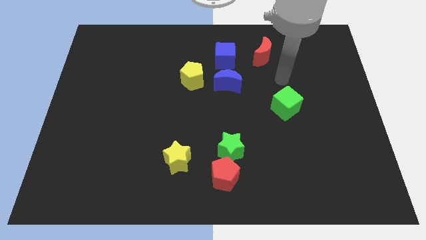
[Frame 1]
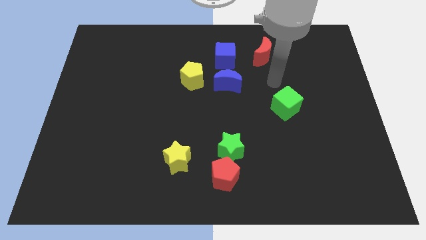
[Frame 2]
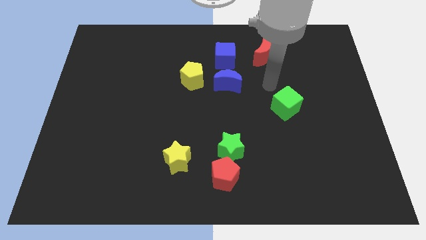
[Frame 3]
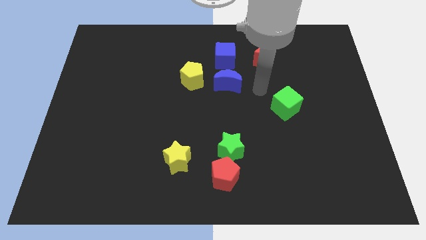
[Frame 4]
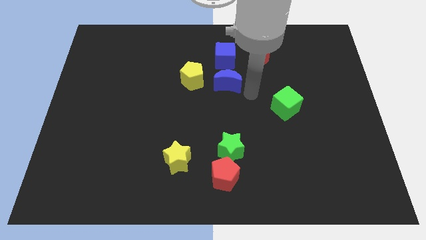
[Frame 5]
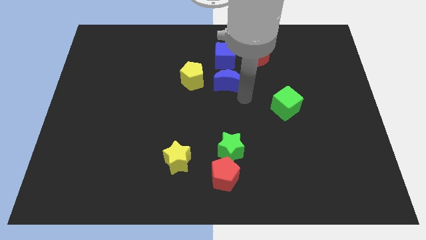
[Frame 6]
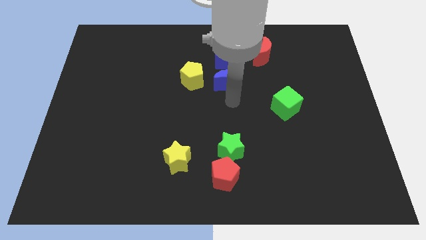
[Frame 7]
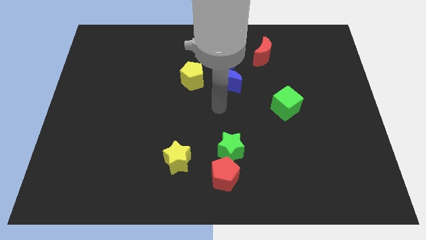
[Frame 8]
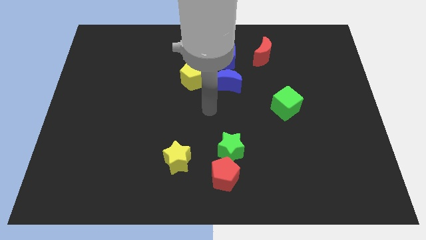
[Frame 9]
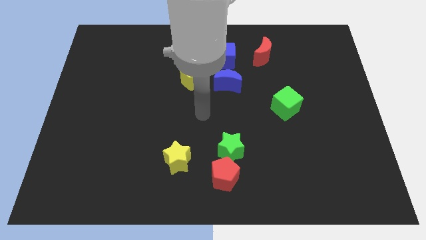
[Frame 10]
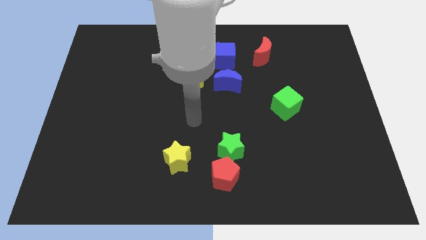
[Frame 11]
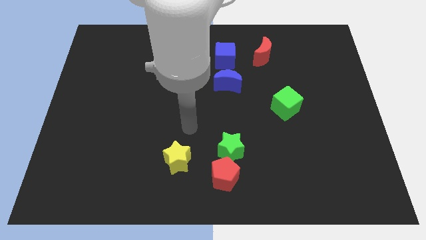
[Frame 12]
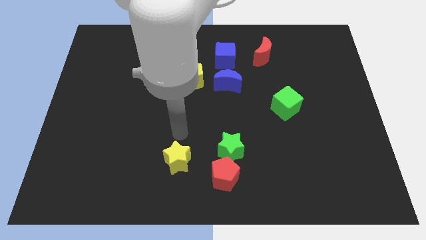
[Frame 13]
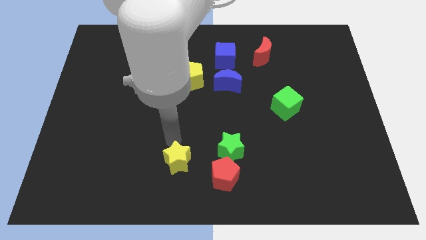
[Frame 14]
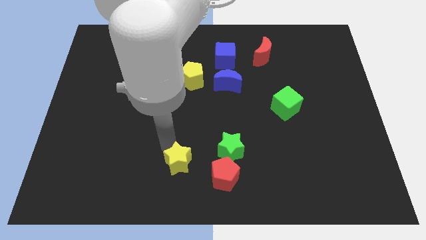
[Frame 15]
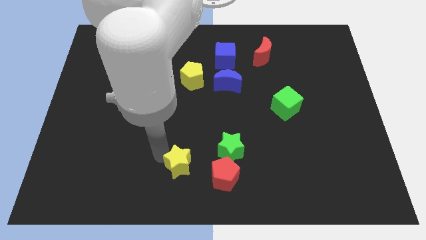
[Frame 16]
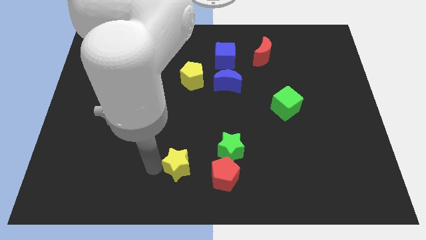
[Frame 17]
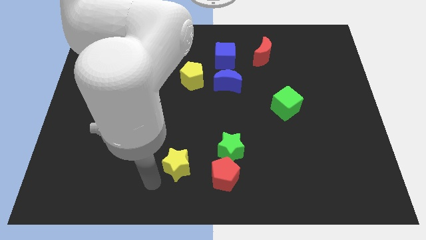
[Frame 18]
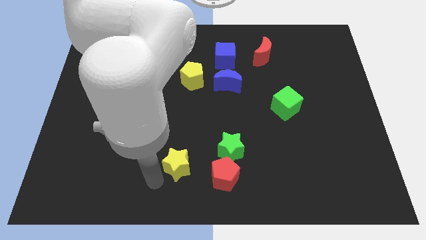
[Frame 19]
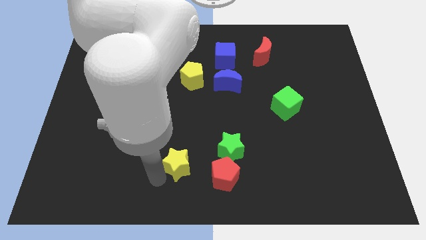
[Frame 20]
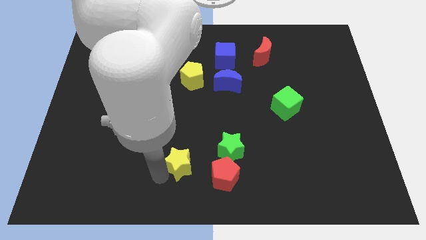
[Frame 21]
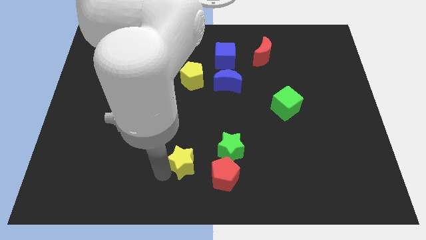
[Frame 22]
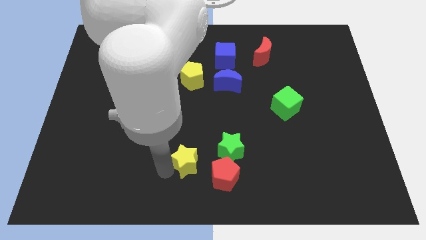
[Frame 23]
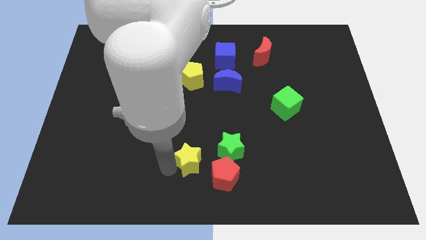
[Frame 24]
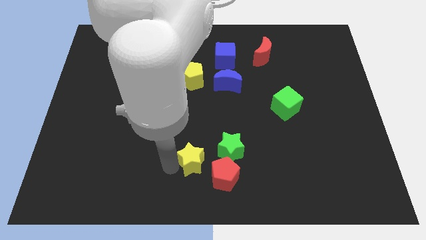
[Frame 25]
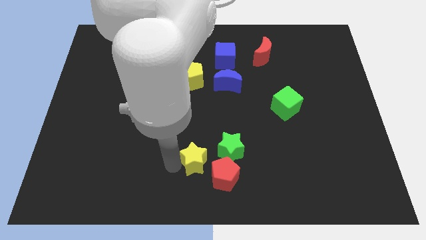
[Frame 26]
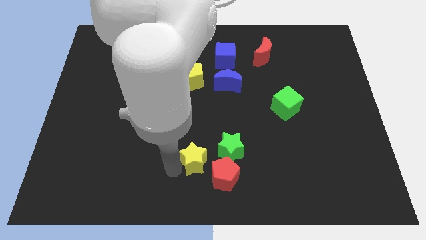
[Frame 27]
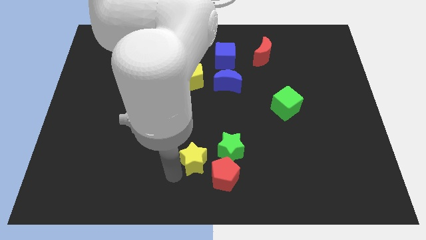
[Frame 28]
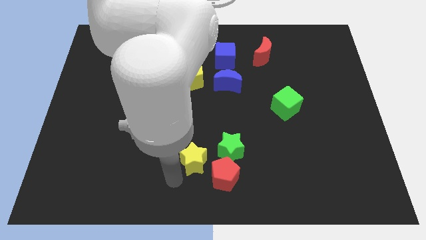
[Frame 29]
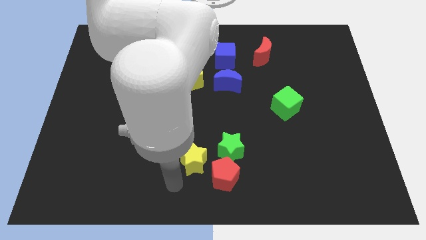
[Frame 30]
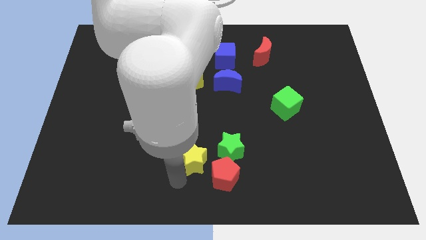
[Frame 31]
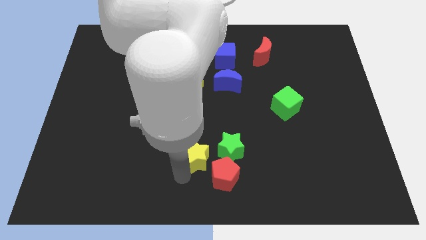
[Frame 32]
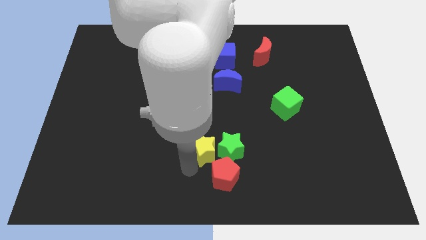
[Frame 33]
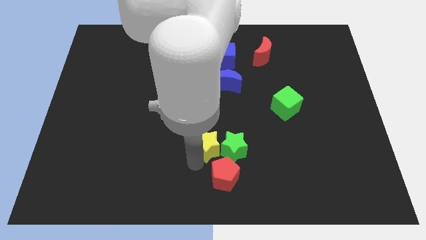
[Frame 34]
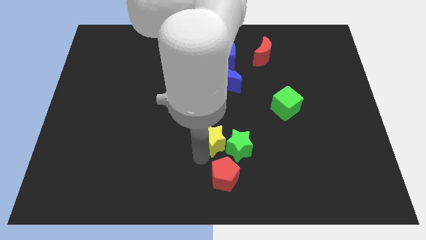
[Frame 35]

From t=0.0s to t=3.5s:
move the yellow star up and right slightly

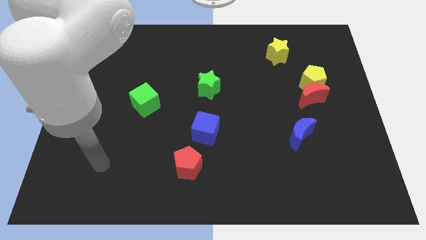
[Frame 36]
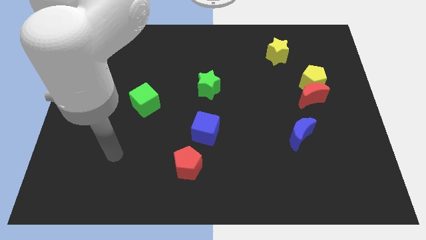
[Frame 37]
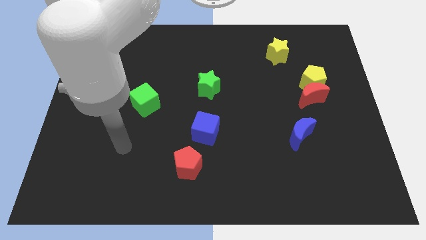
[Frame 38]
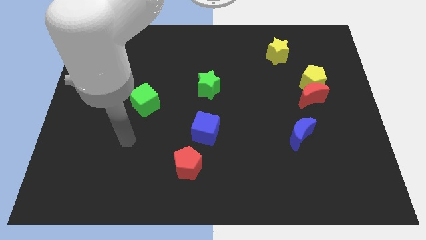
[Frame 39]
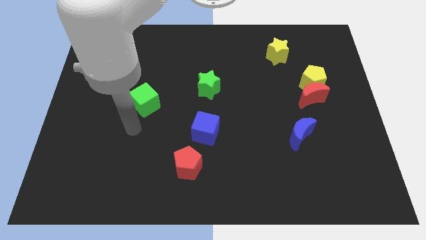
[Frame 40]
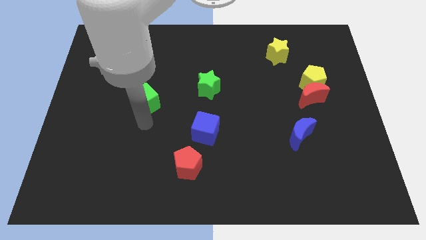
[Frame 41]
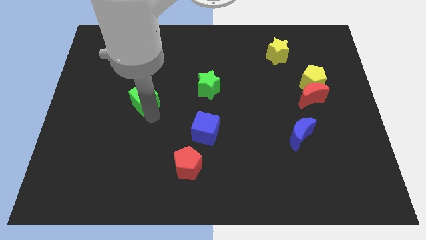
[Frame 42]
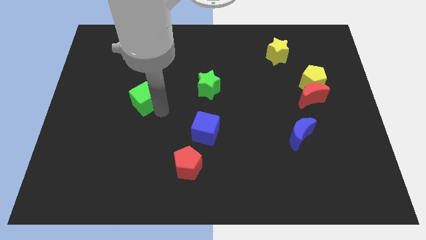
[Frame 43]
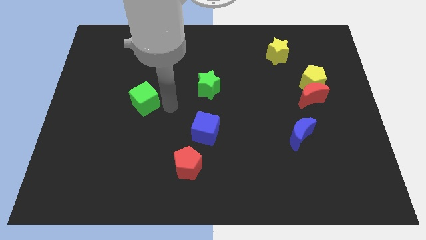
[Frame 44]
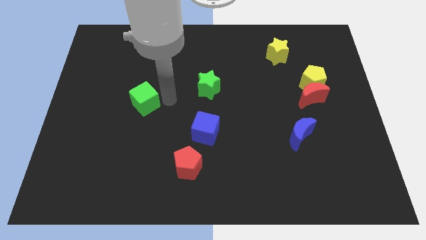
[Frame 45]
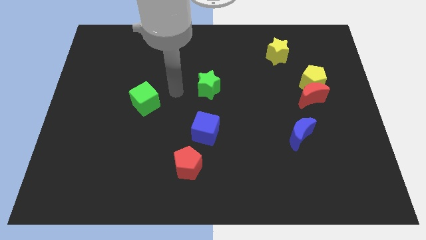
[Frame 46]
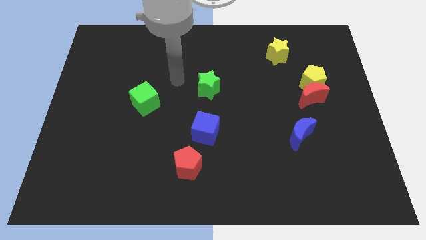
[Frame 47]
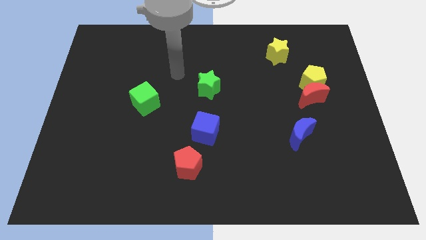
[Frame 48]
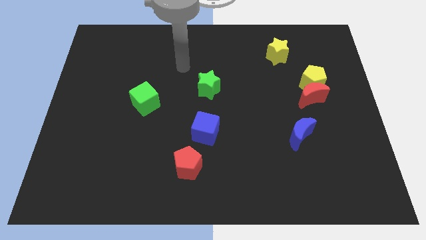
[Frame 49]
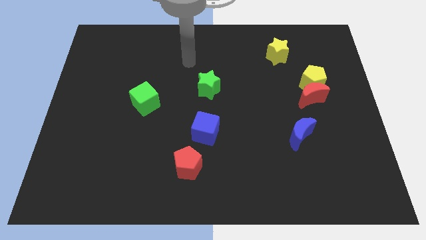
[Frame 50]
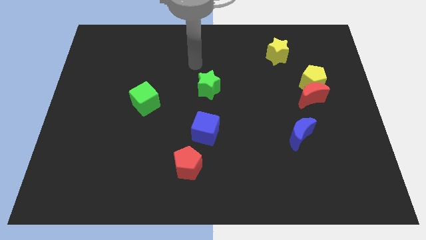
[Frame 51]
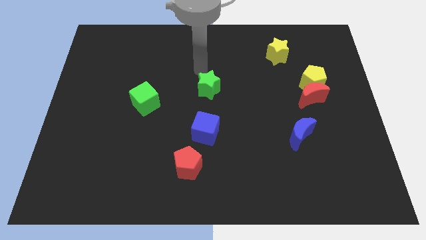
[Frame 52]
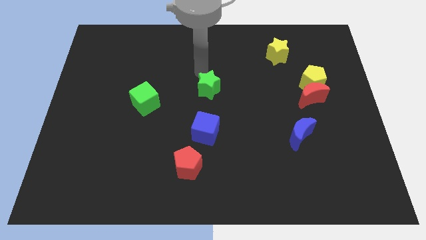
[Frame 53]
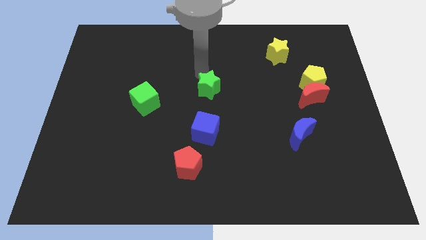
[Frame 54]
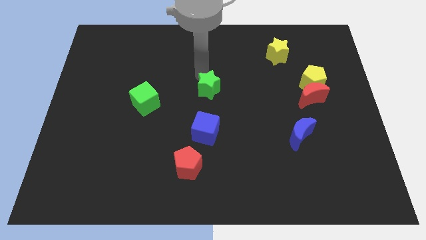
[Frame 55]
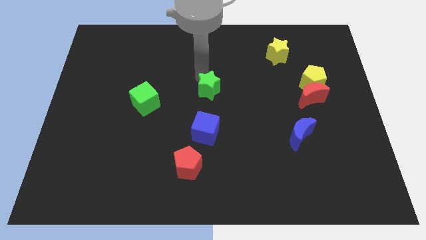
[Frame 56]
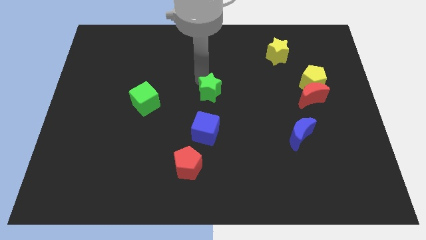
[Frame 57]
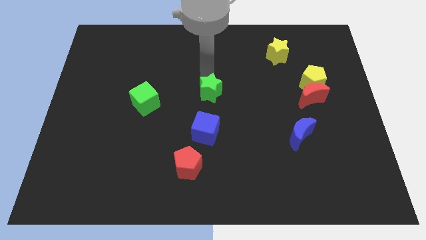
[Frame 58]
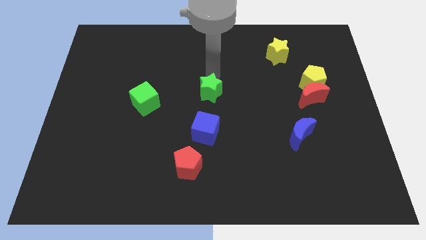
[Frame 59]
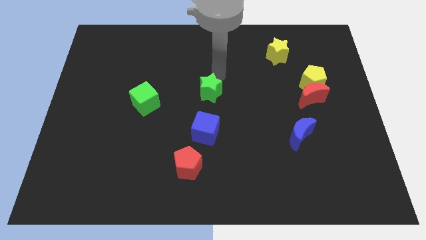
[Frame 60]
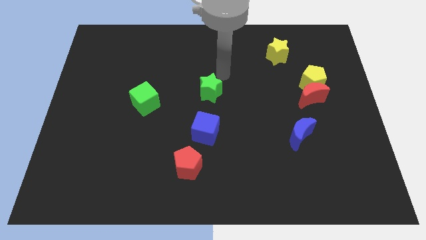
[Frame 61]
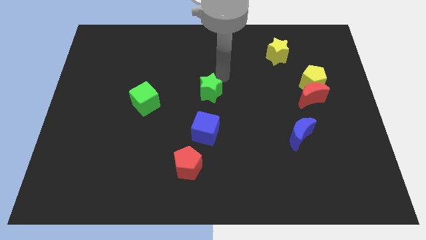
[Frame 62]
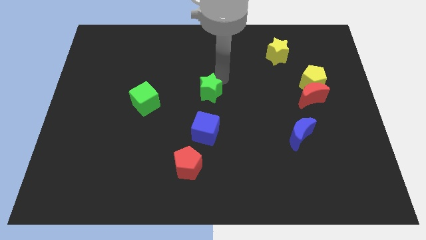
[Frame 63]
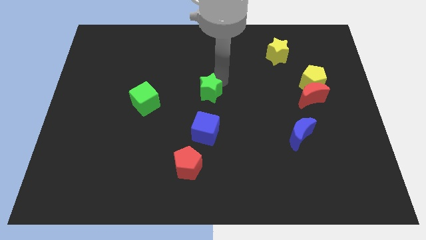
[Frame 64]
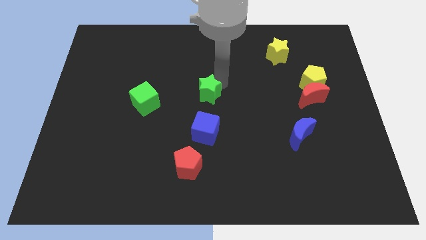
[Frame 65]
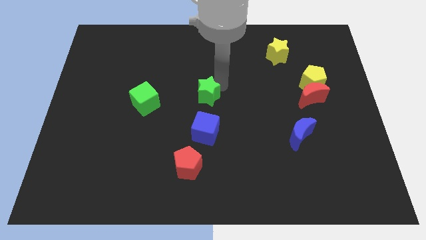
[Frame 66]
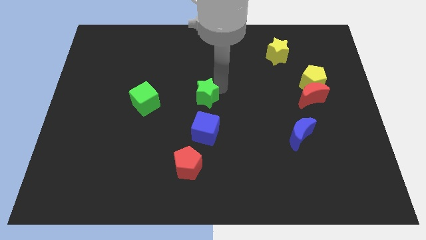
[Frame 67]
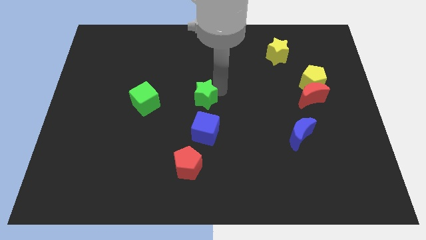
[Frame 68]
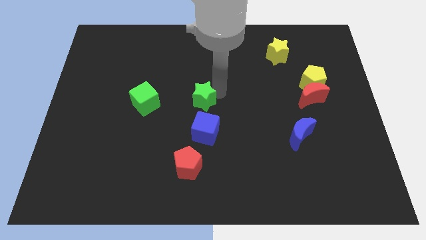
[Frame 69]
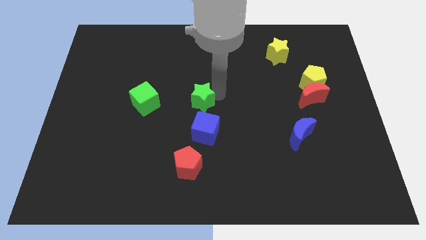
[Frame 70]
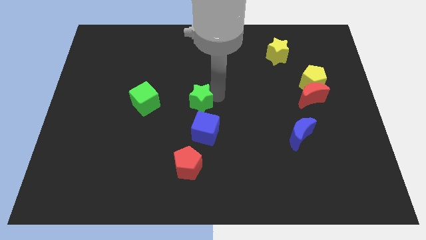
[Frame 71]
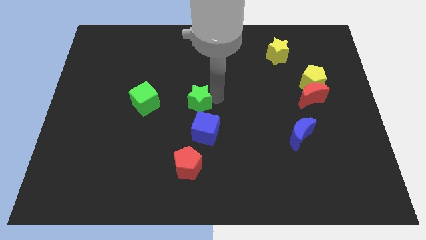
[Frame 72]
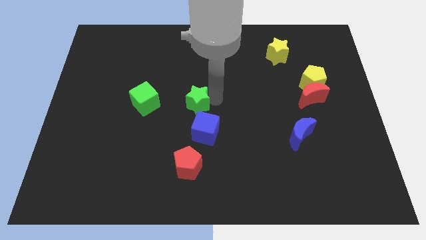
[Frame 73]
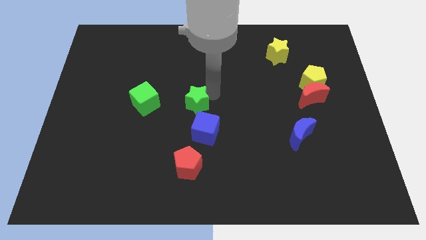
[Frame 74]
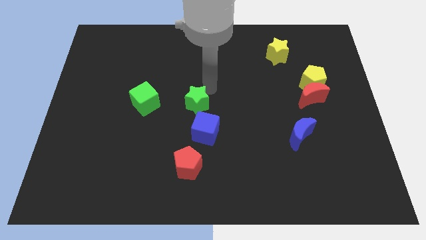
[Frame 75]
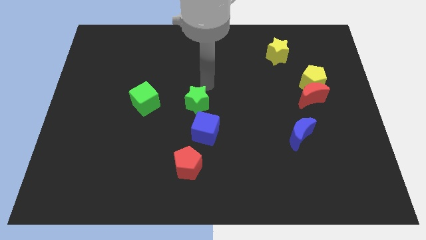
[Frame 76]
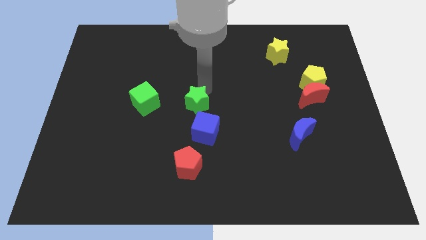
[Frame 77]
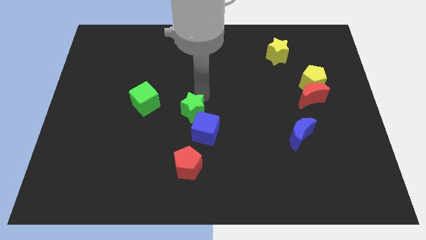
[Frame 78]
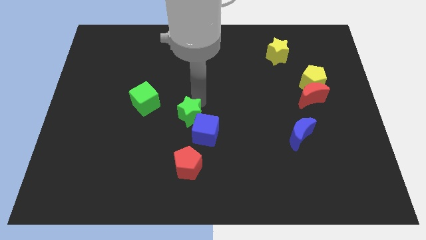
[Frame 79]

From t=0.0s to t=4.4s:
push the green star downwards a bit

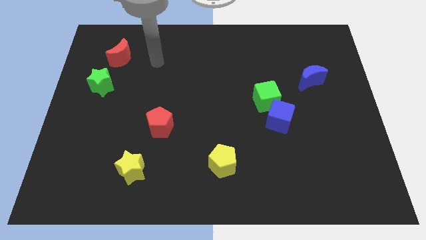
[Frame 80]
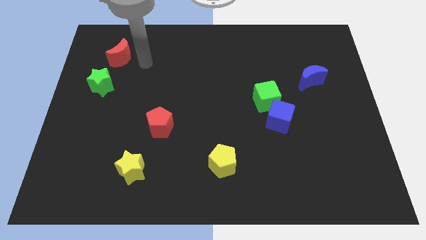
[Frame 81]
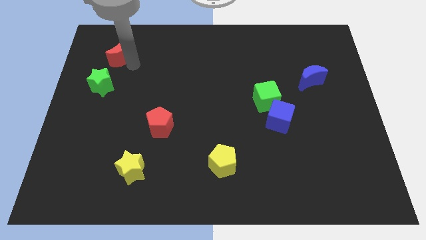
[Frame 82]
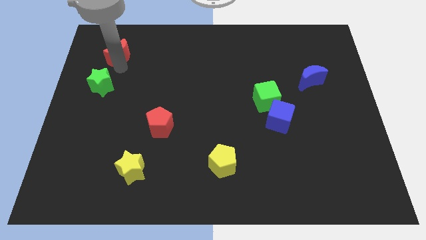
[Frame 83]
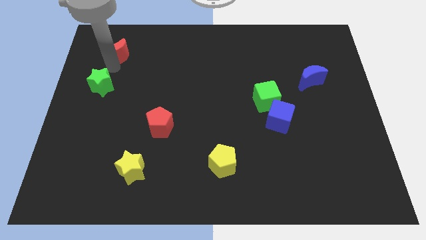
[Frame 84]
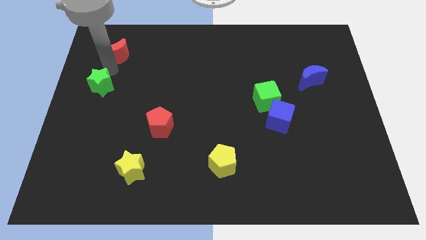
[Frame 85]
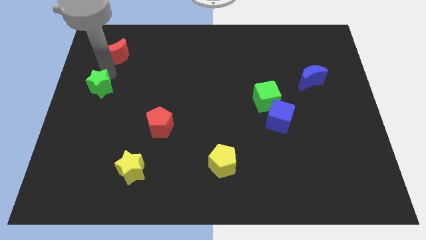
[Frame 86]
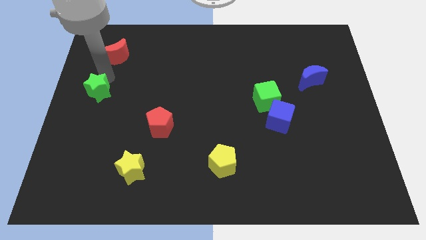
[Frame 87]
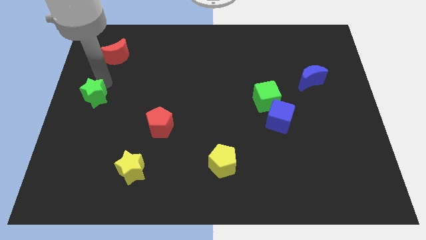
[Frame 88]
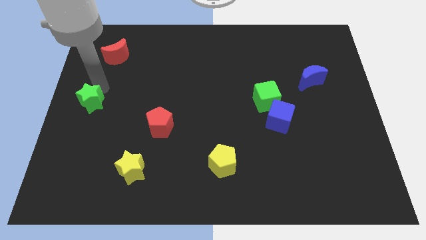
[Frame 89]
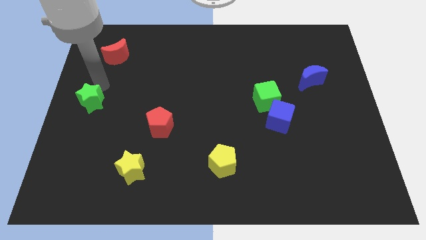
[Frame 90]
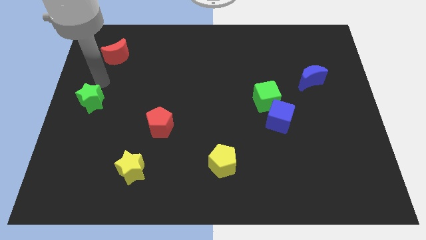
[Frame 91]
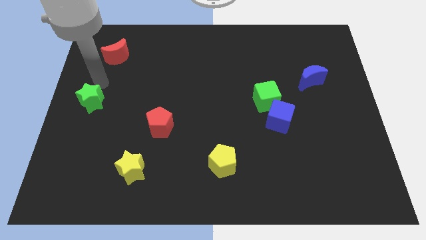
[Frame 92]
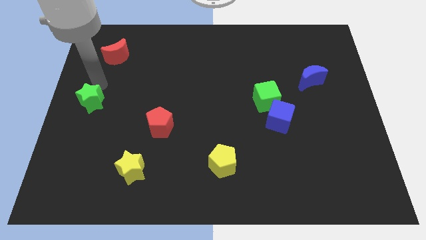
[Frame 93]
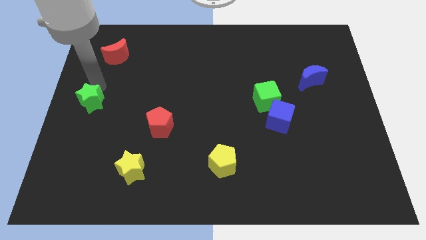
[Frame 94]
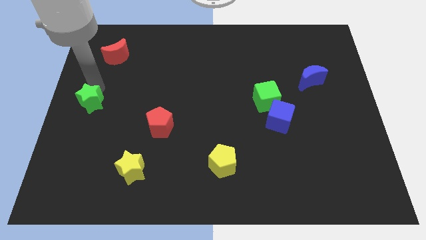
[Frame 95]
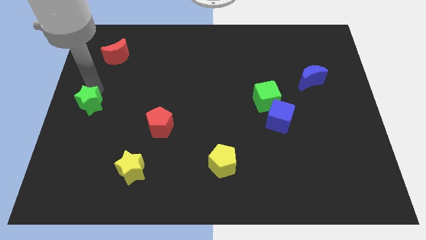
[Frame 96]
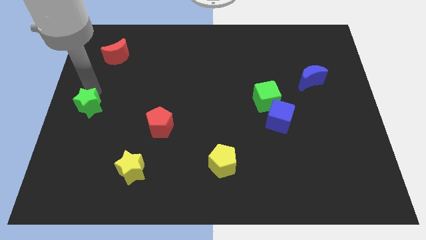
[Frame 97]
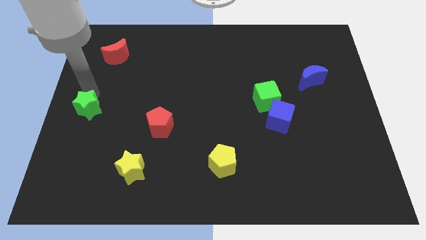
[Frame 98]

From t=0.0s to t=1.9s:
slide the green star slightly down
